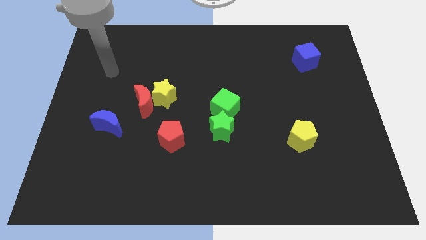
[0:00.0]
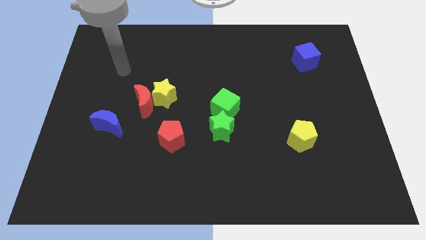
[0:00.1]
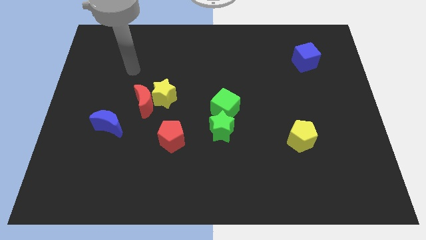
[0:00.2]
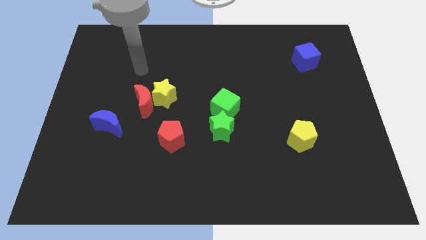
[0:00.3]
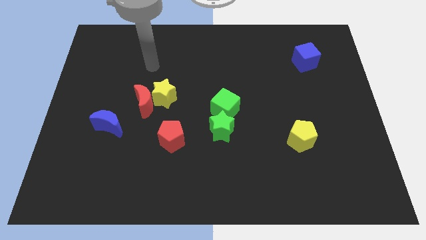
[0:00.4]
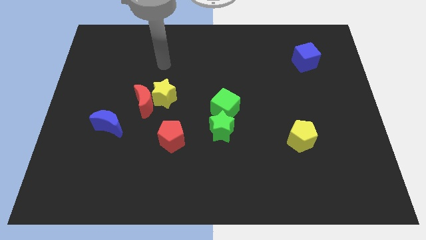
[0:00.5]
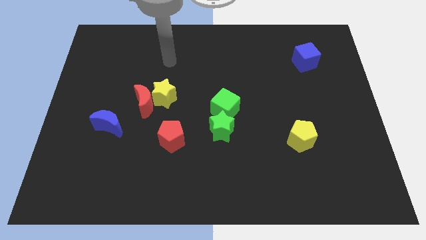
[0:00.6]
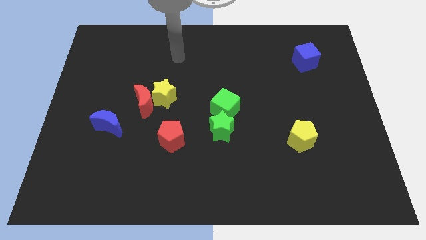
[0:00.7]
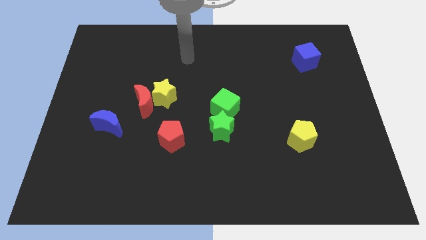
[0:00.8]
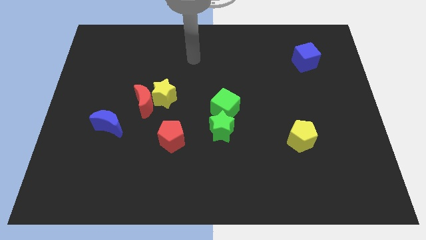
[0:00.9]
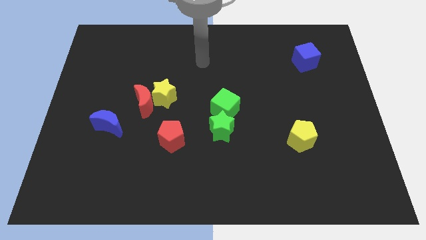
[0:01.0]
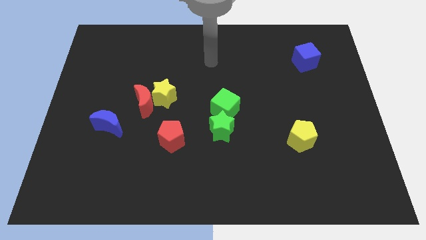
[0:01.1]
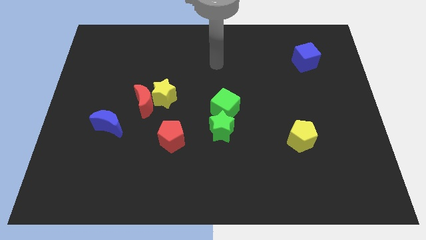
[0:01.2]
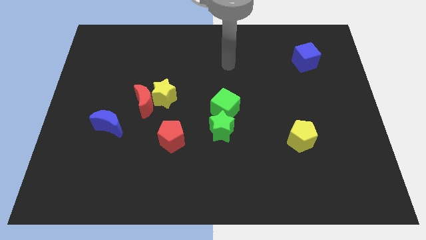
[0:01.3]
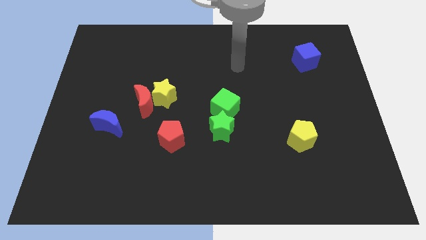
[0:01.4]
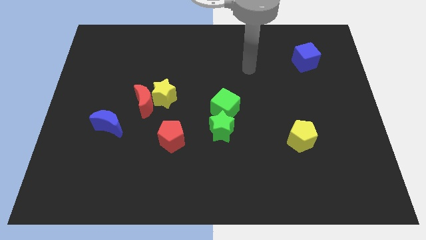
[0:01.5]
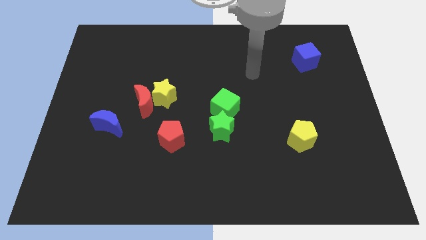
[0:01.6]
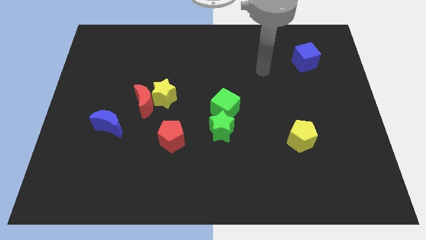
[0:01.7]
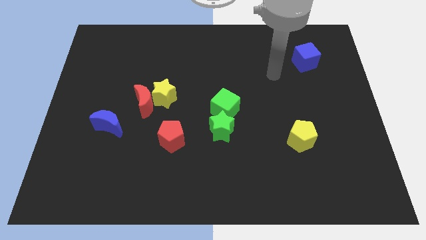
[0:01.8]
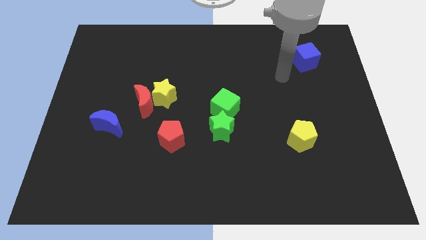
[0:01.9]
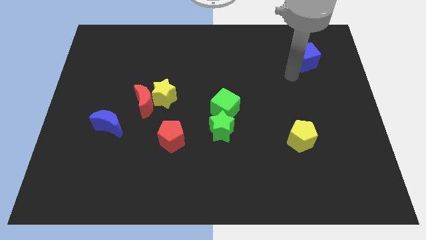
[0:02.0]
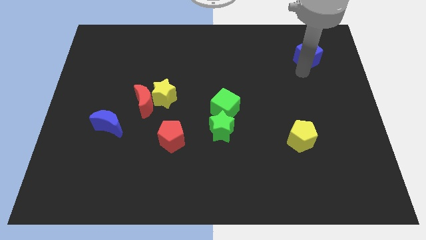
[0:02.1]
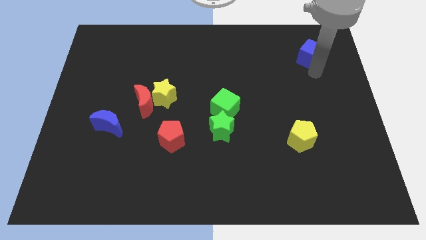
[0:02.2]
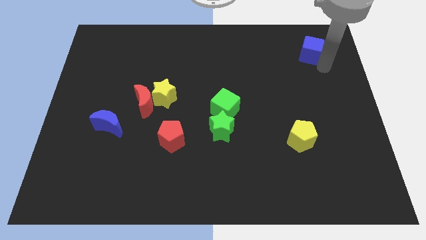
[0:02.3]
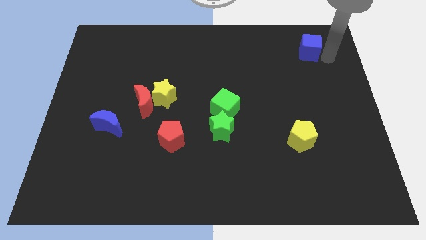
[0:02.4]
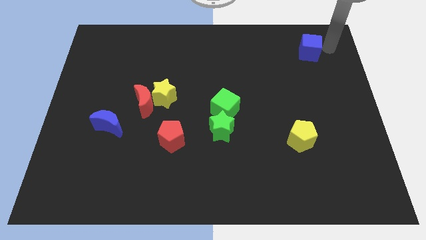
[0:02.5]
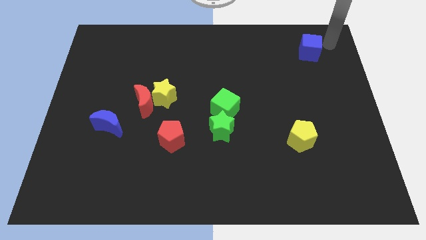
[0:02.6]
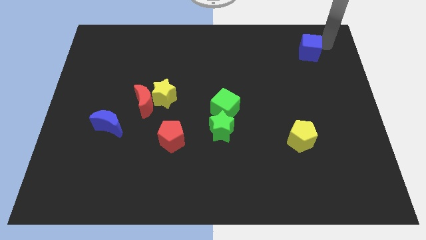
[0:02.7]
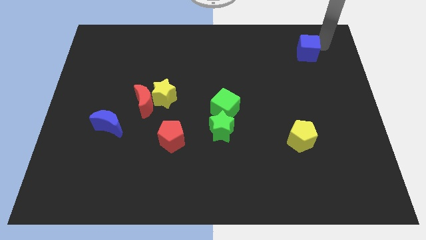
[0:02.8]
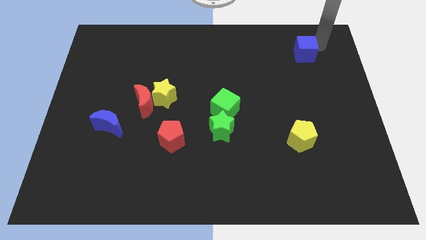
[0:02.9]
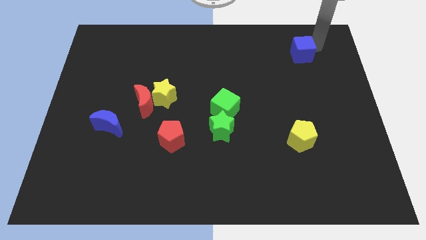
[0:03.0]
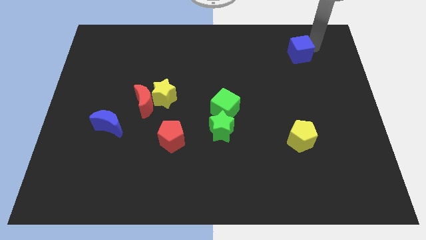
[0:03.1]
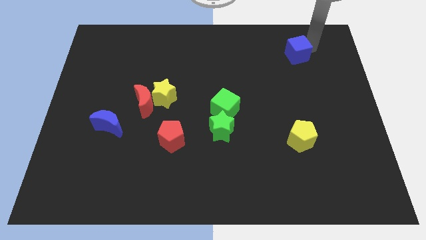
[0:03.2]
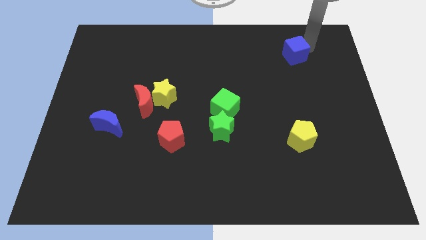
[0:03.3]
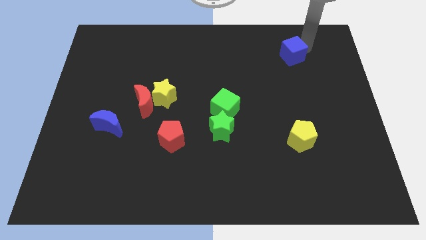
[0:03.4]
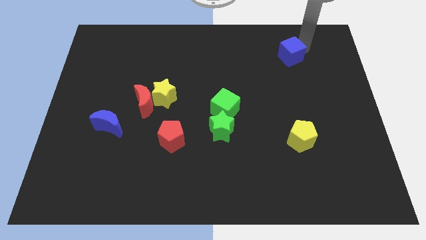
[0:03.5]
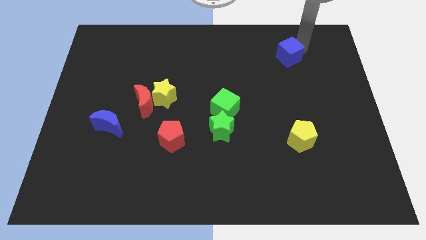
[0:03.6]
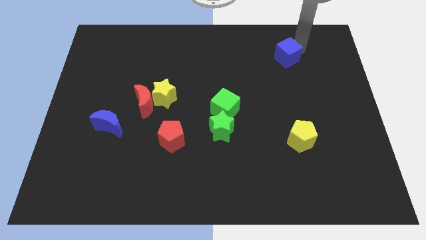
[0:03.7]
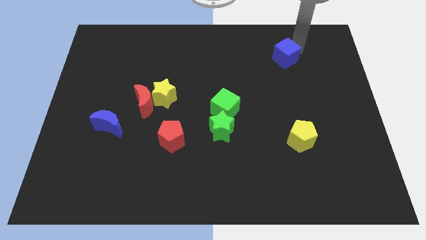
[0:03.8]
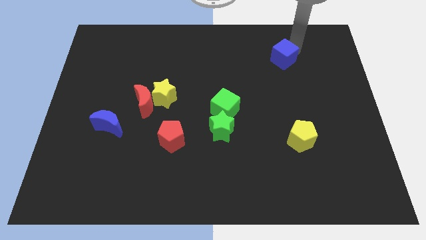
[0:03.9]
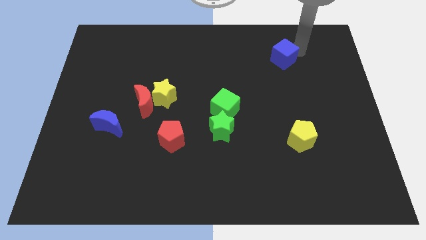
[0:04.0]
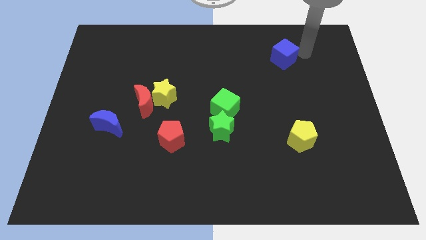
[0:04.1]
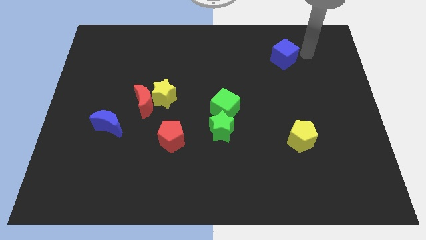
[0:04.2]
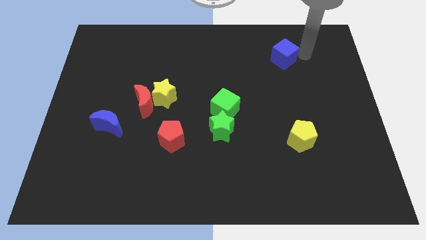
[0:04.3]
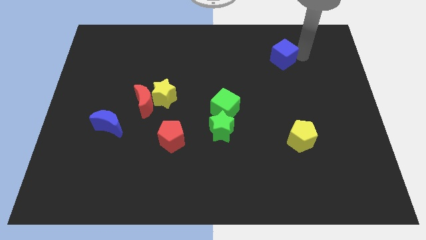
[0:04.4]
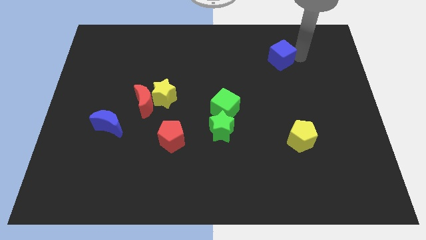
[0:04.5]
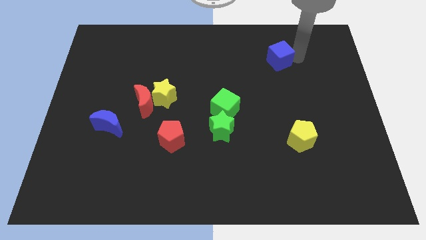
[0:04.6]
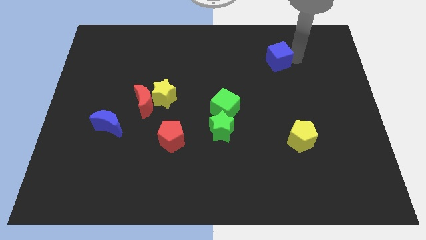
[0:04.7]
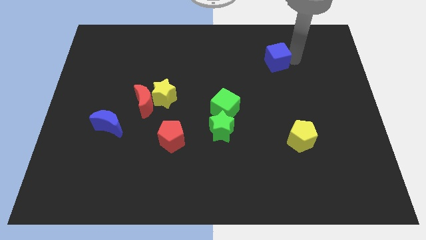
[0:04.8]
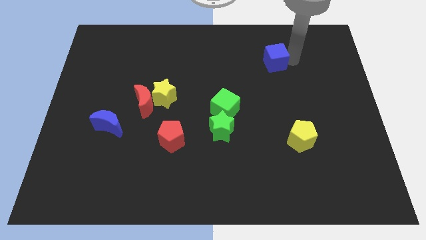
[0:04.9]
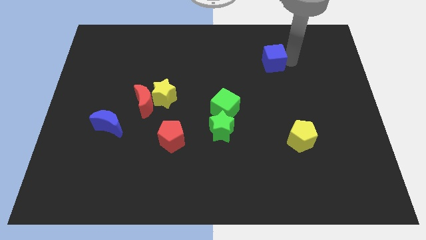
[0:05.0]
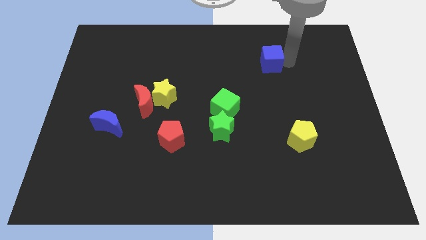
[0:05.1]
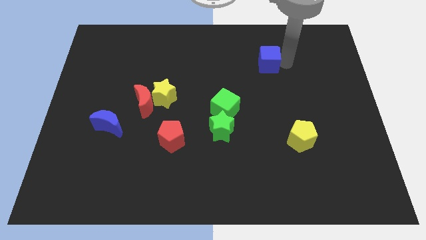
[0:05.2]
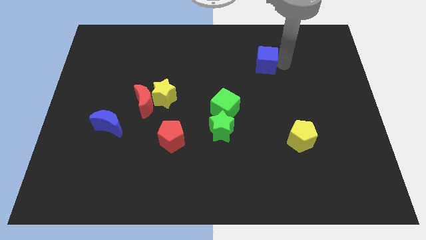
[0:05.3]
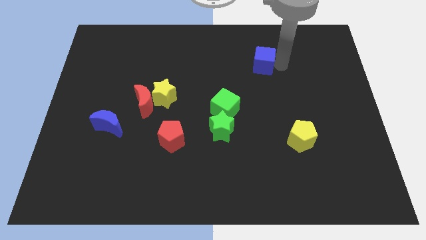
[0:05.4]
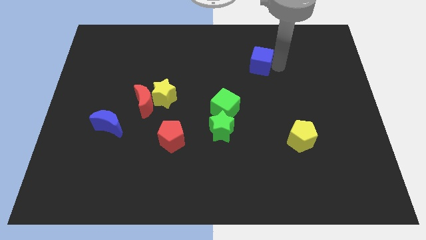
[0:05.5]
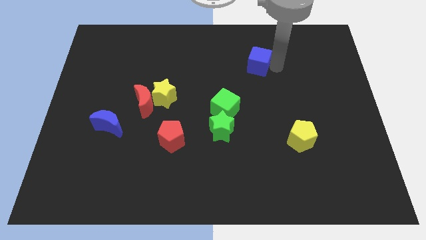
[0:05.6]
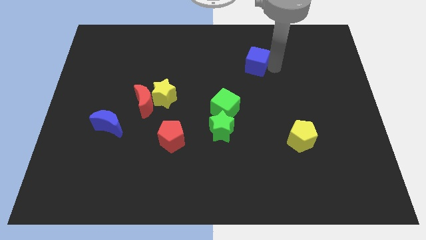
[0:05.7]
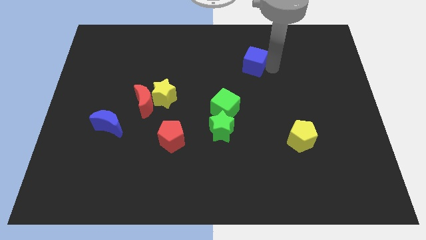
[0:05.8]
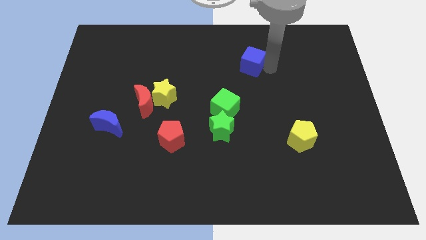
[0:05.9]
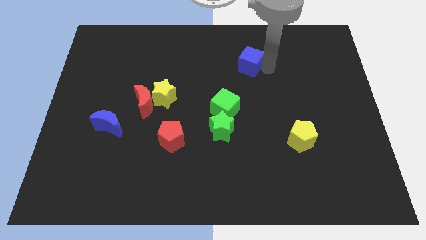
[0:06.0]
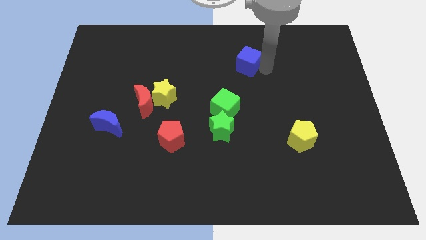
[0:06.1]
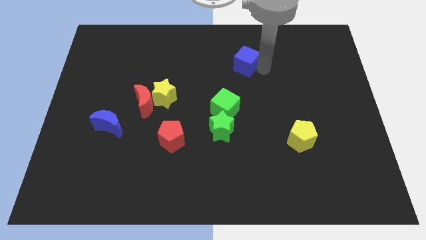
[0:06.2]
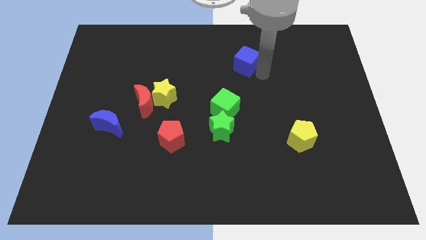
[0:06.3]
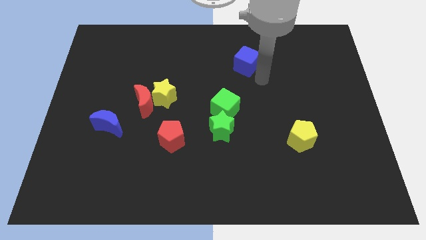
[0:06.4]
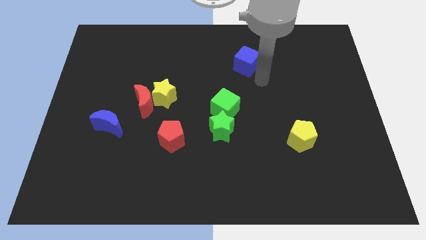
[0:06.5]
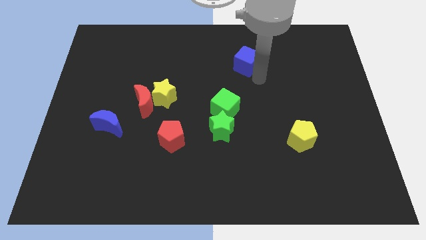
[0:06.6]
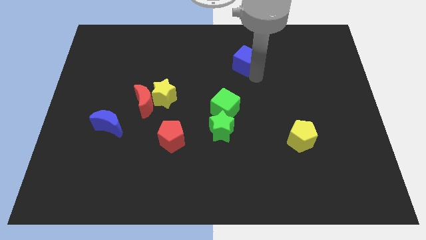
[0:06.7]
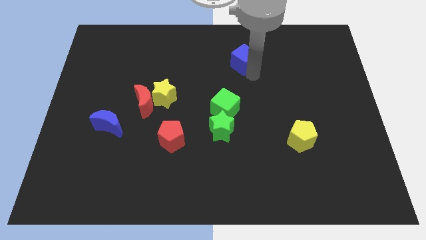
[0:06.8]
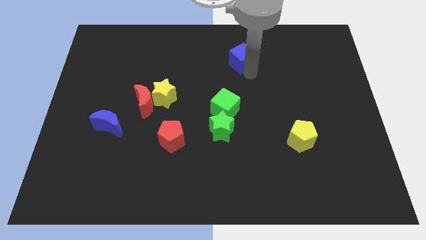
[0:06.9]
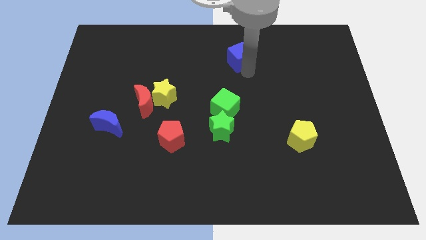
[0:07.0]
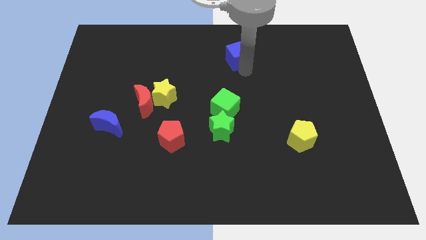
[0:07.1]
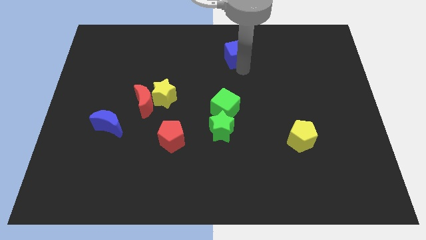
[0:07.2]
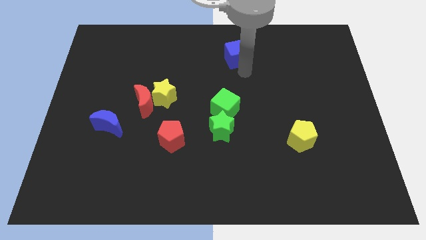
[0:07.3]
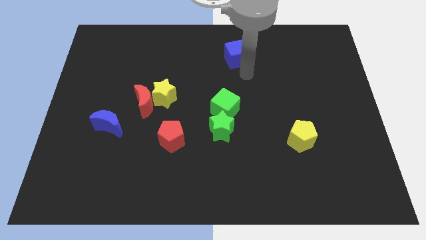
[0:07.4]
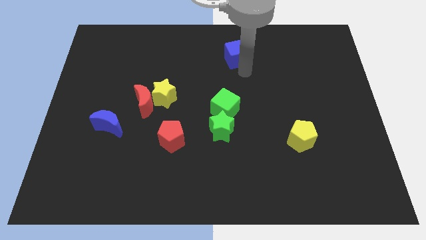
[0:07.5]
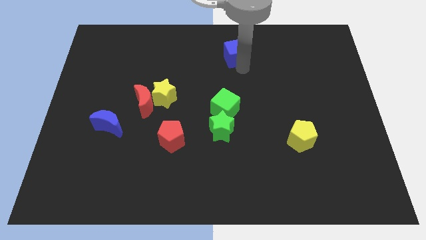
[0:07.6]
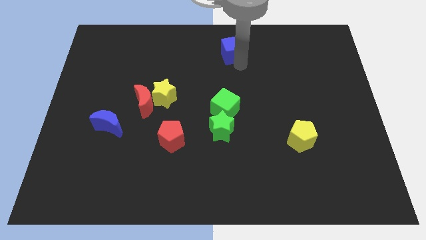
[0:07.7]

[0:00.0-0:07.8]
move the blue cube to the top
